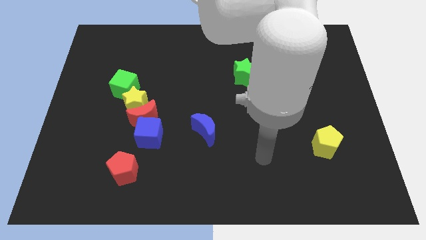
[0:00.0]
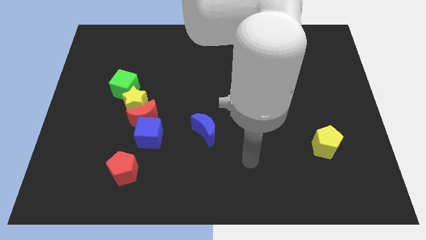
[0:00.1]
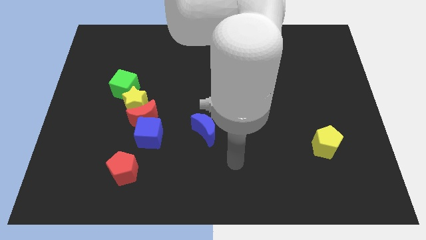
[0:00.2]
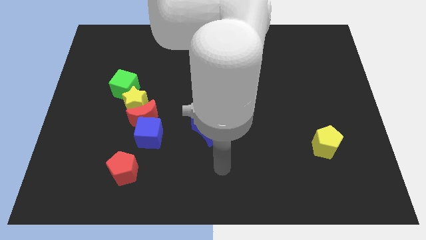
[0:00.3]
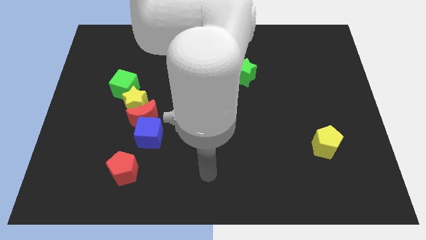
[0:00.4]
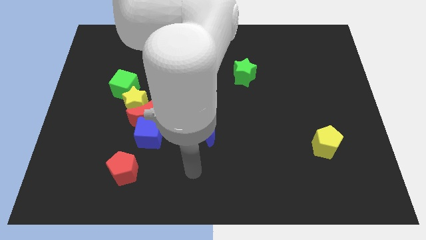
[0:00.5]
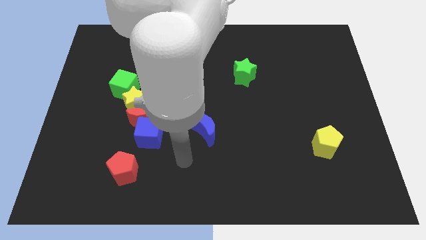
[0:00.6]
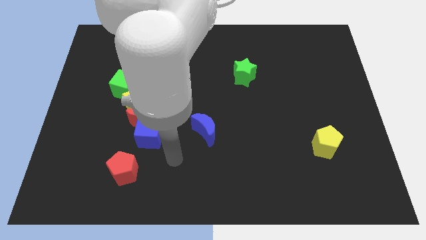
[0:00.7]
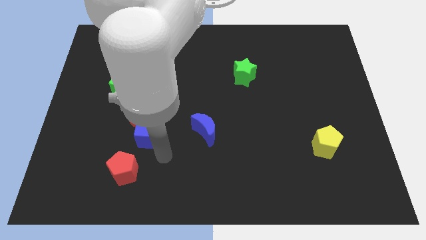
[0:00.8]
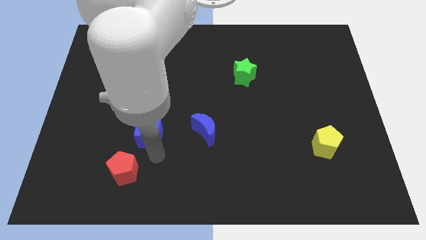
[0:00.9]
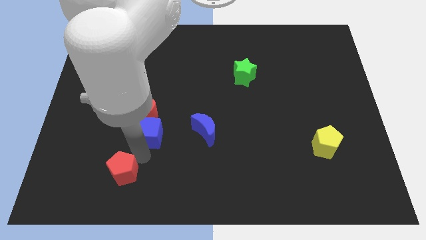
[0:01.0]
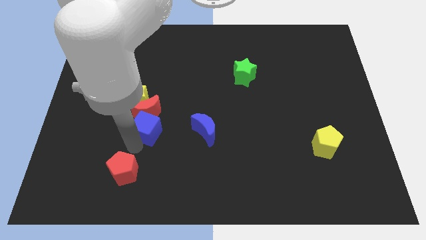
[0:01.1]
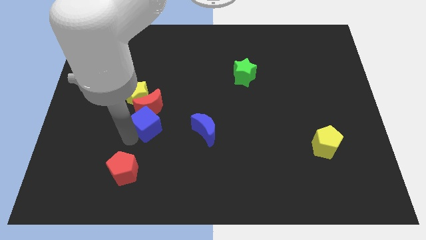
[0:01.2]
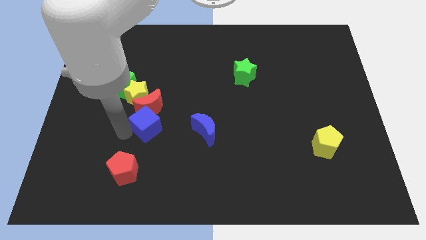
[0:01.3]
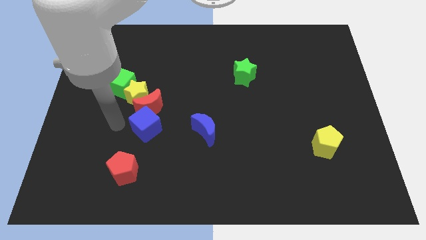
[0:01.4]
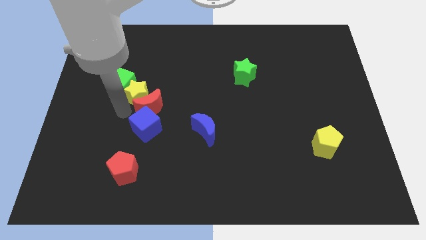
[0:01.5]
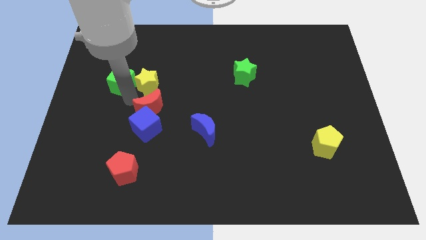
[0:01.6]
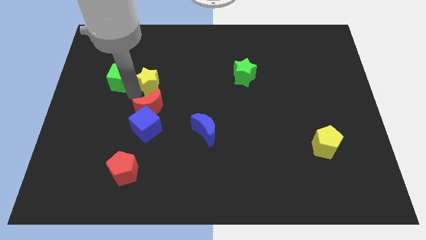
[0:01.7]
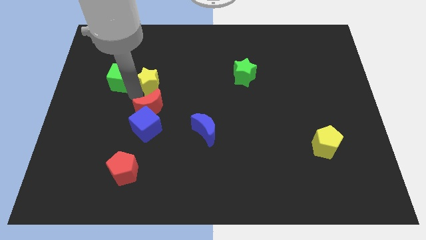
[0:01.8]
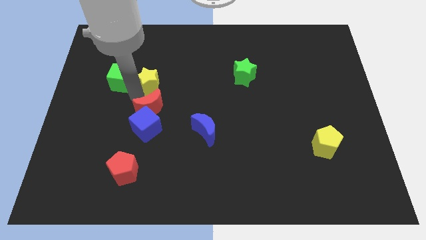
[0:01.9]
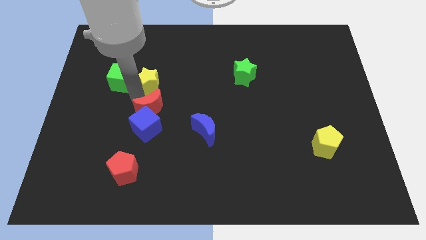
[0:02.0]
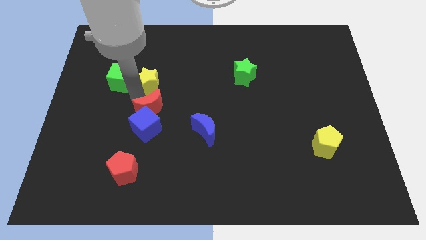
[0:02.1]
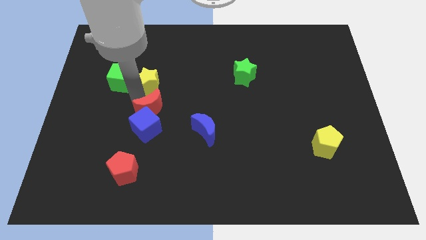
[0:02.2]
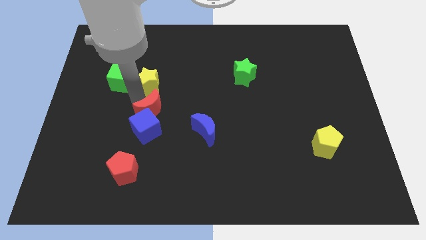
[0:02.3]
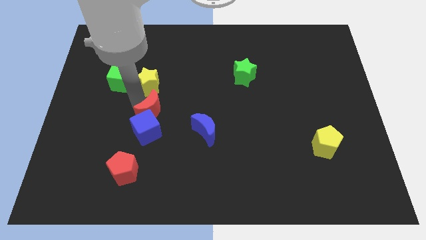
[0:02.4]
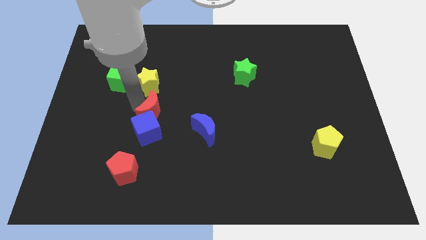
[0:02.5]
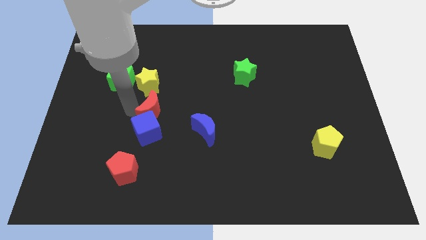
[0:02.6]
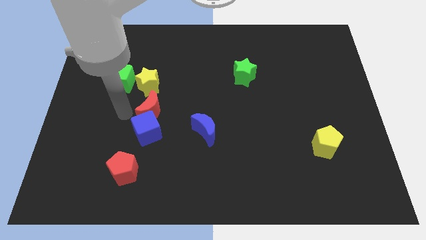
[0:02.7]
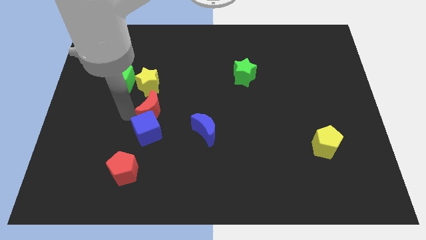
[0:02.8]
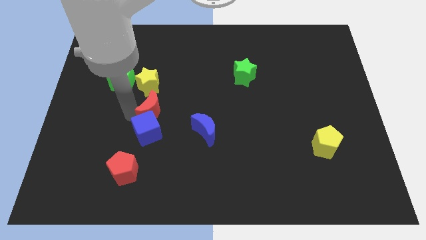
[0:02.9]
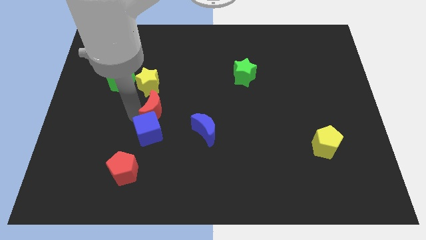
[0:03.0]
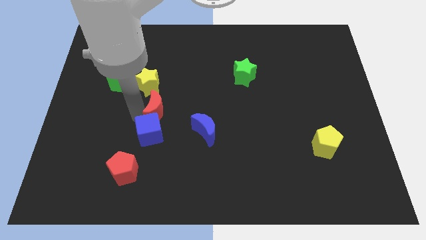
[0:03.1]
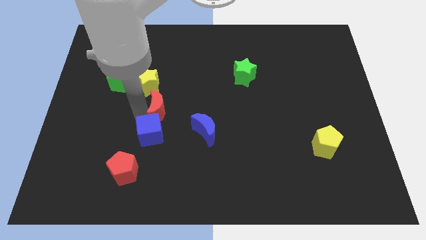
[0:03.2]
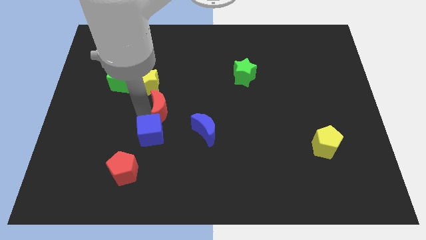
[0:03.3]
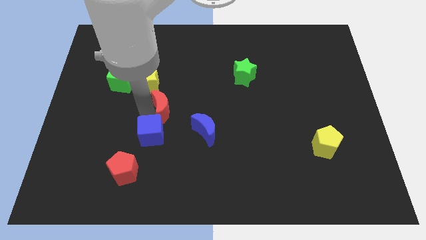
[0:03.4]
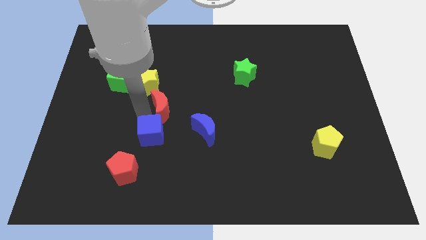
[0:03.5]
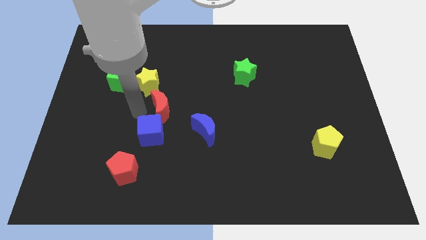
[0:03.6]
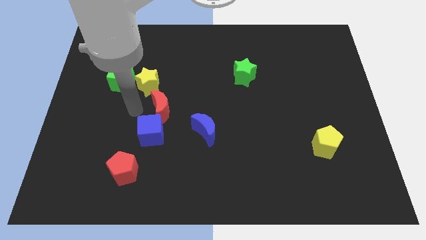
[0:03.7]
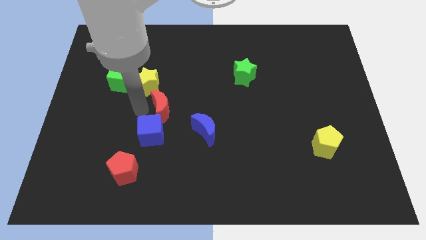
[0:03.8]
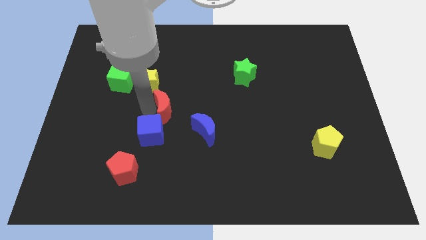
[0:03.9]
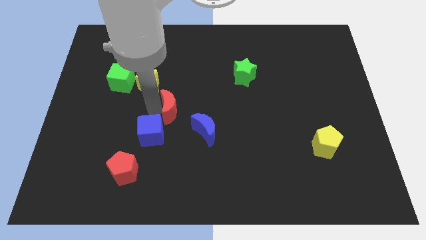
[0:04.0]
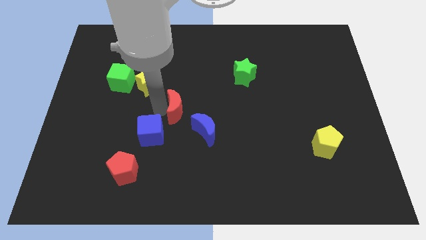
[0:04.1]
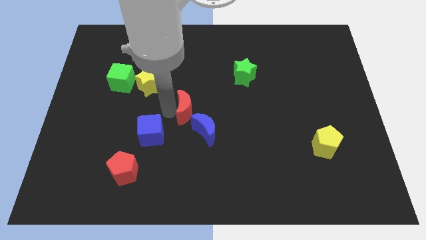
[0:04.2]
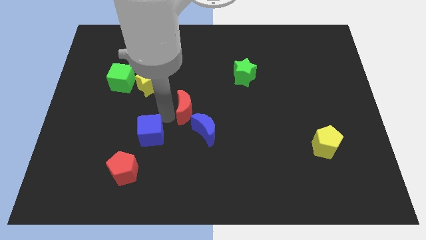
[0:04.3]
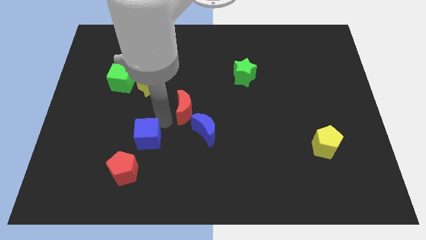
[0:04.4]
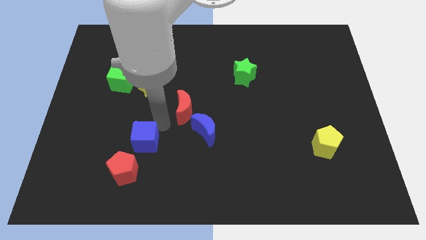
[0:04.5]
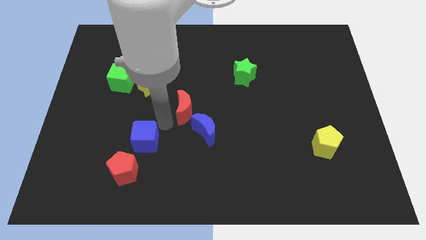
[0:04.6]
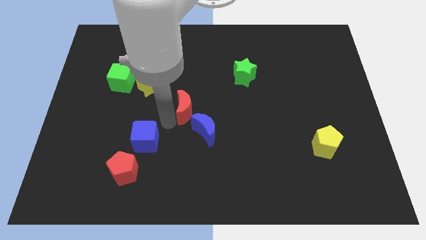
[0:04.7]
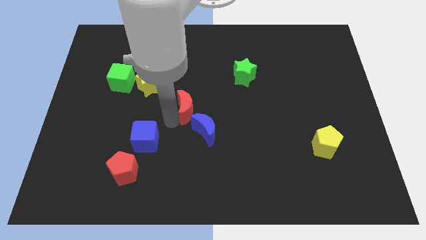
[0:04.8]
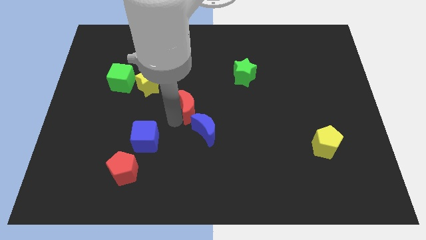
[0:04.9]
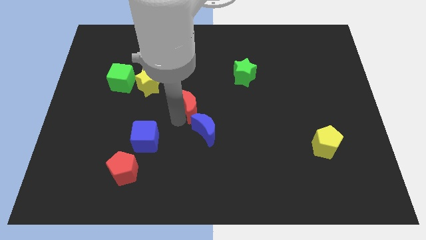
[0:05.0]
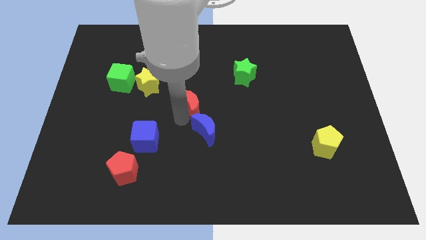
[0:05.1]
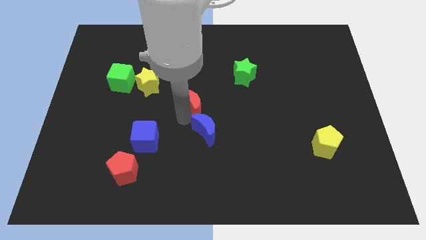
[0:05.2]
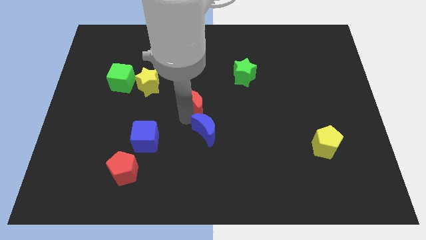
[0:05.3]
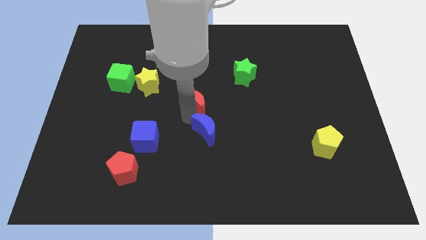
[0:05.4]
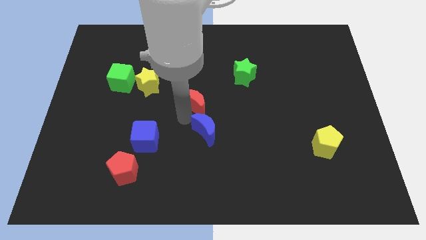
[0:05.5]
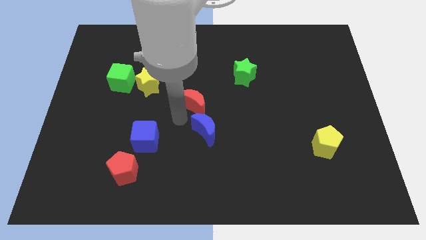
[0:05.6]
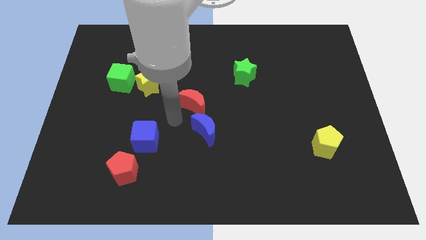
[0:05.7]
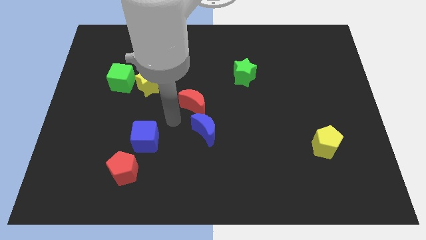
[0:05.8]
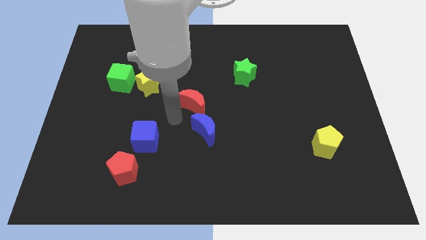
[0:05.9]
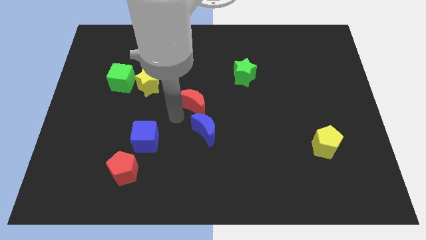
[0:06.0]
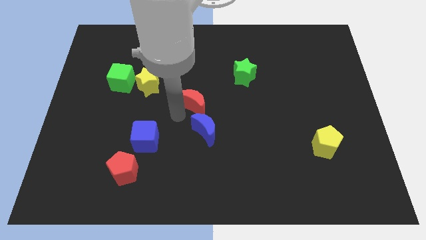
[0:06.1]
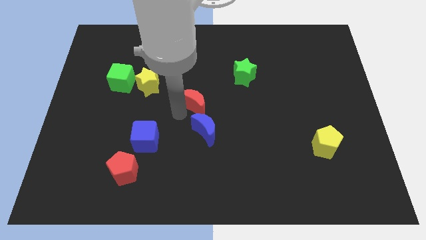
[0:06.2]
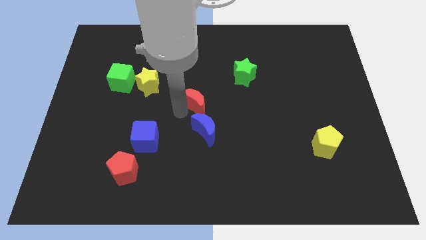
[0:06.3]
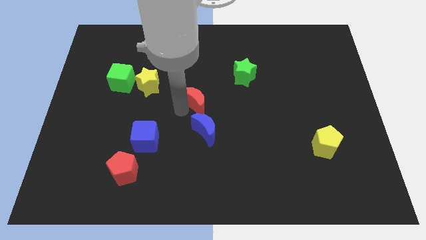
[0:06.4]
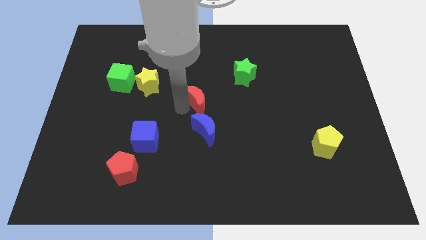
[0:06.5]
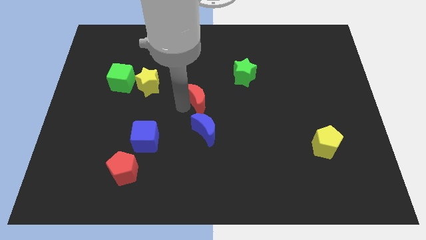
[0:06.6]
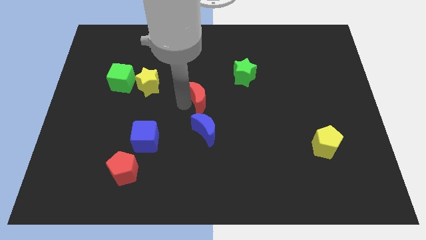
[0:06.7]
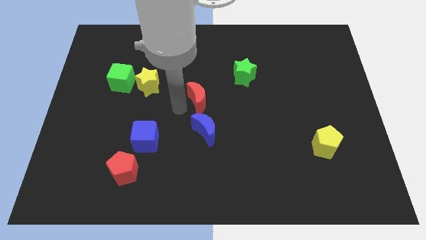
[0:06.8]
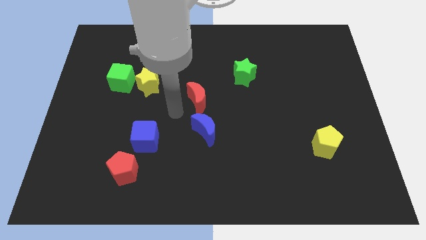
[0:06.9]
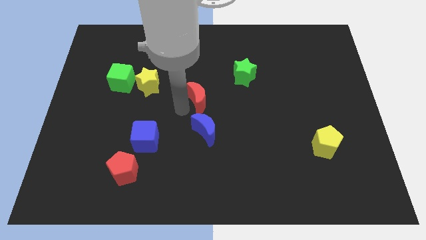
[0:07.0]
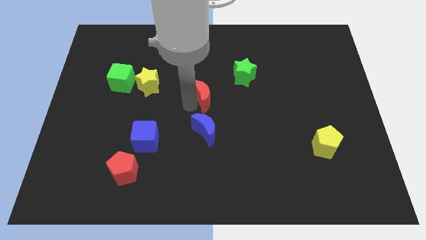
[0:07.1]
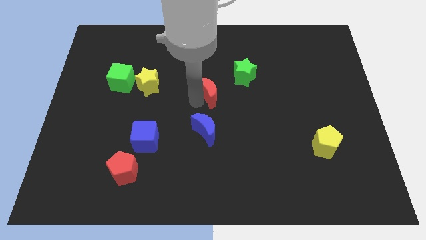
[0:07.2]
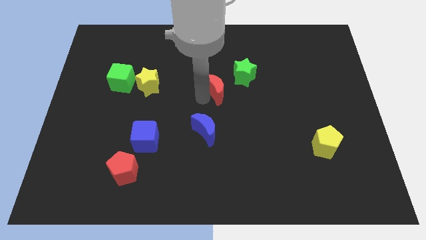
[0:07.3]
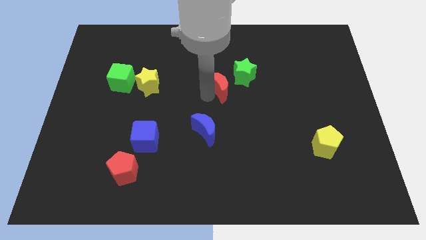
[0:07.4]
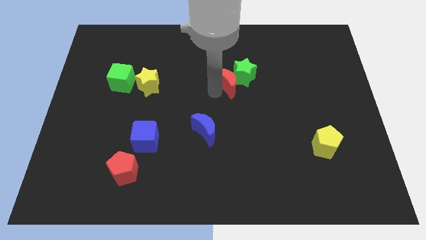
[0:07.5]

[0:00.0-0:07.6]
put the red moon next to the green star

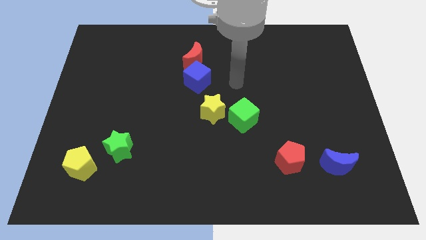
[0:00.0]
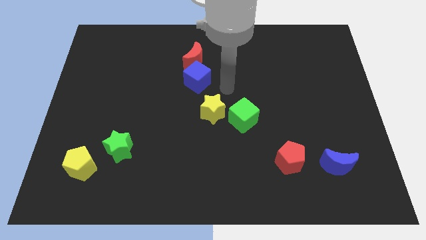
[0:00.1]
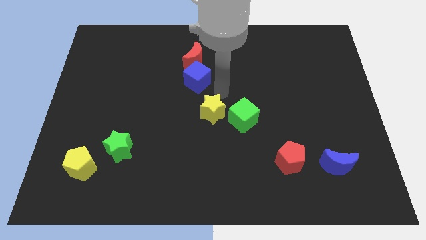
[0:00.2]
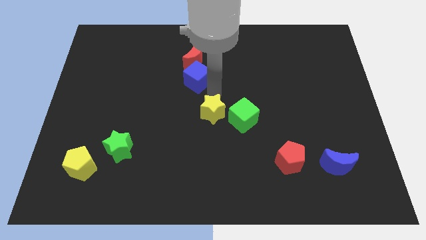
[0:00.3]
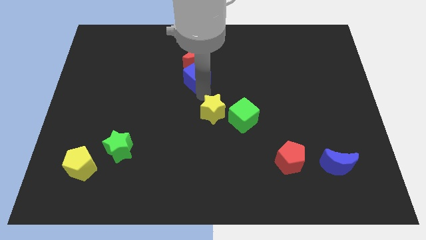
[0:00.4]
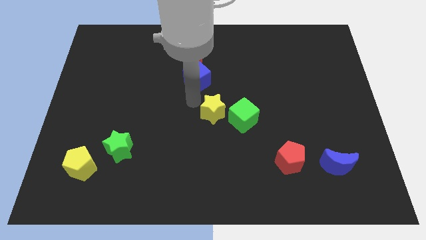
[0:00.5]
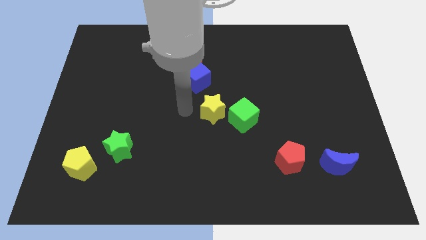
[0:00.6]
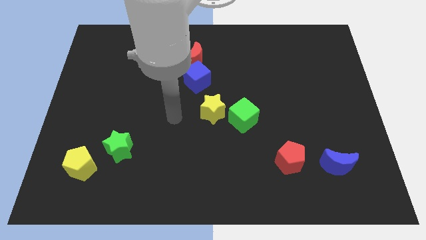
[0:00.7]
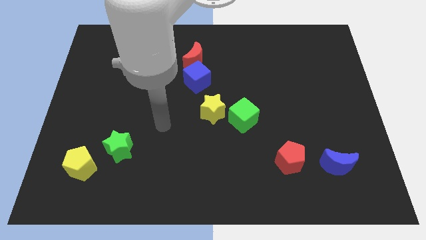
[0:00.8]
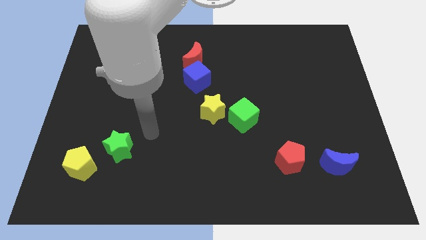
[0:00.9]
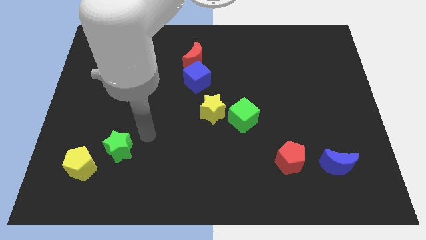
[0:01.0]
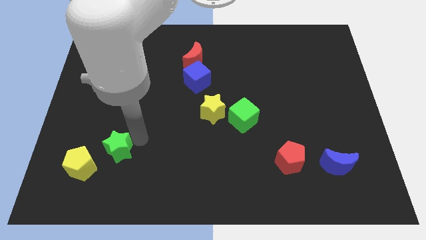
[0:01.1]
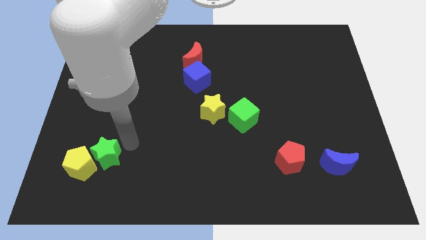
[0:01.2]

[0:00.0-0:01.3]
slide the green star next to the yellow pentagon
